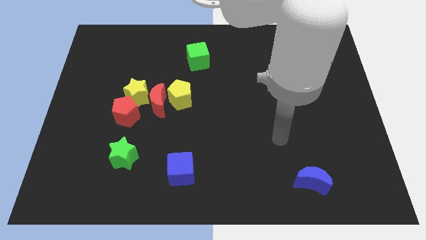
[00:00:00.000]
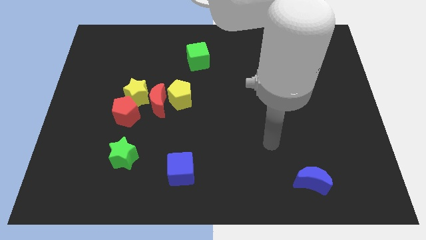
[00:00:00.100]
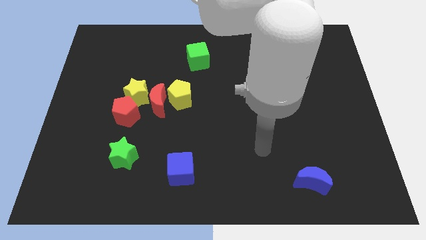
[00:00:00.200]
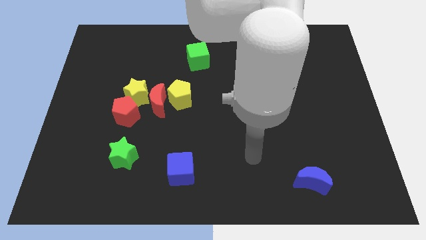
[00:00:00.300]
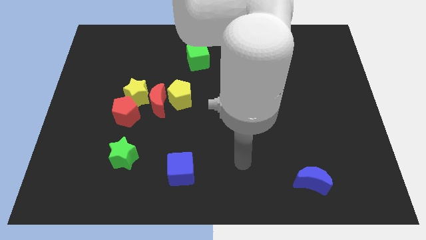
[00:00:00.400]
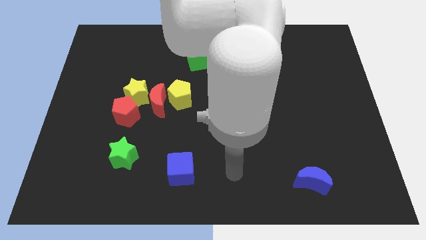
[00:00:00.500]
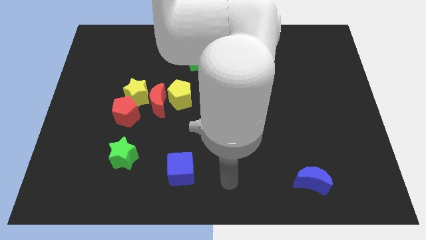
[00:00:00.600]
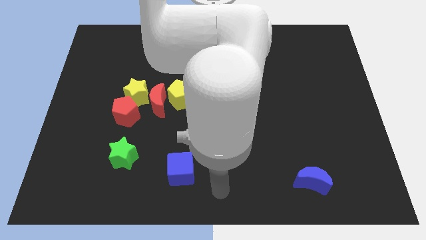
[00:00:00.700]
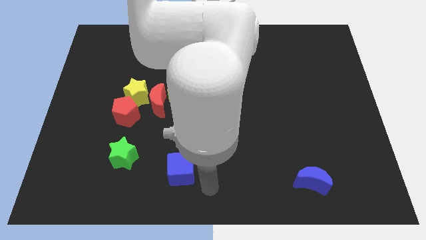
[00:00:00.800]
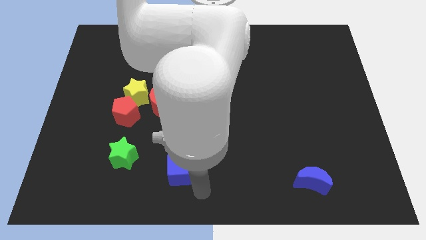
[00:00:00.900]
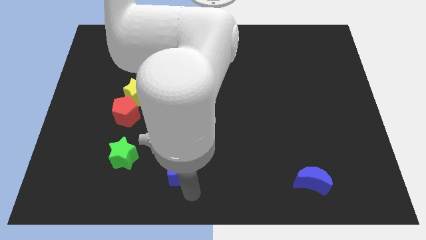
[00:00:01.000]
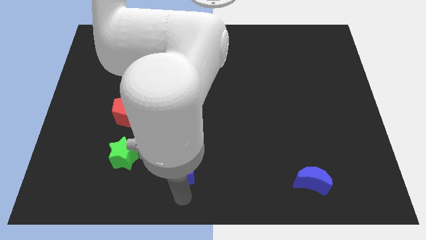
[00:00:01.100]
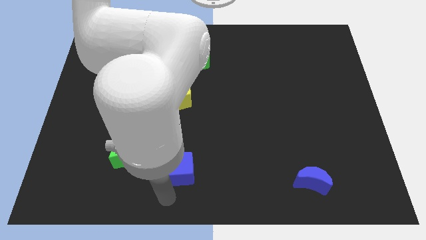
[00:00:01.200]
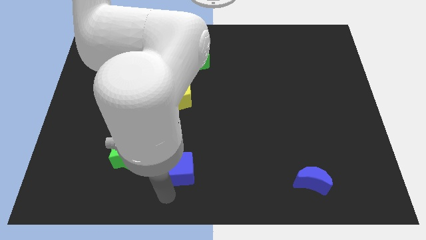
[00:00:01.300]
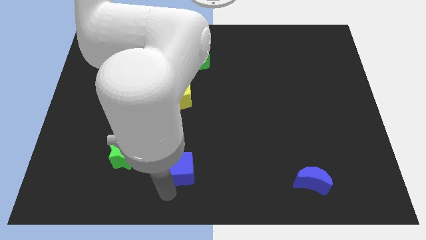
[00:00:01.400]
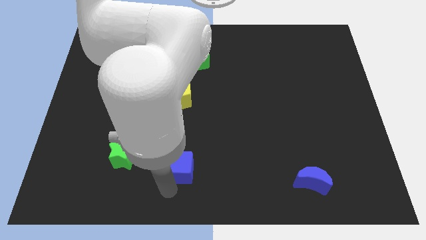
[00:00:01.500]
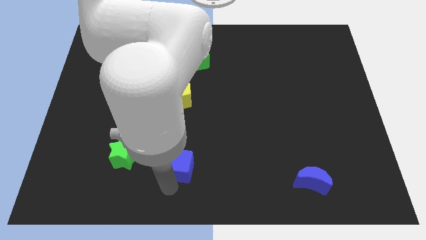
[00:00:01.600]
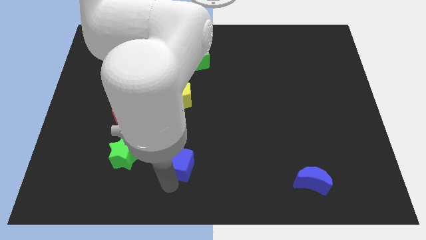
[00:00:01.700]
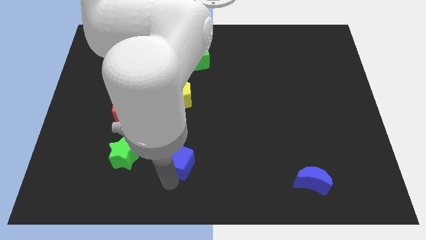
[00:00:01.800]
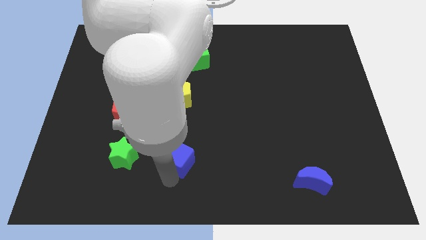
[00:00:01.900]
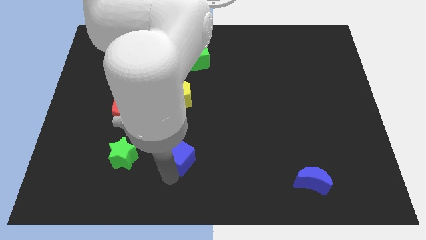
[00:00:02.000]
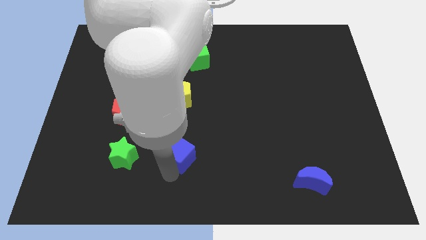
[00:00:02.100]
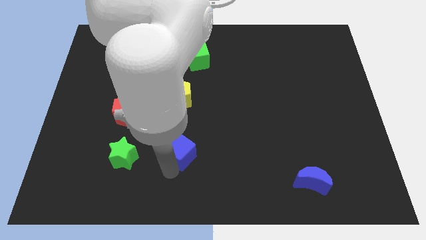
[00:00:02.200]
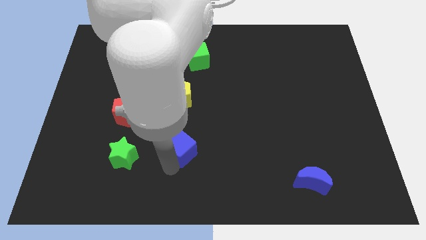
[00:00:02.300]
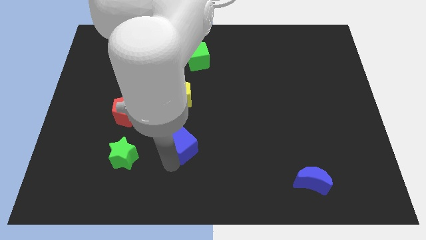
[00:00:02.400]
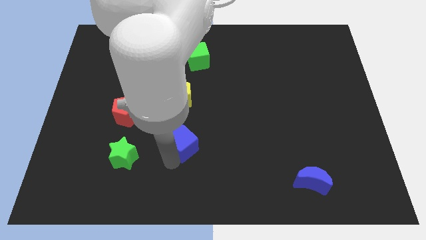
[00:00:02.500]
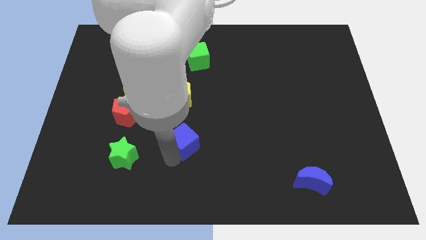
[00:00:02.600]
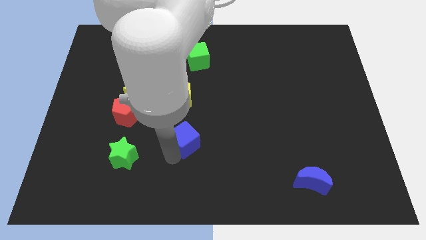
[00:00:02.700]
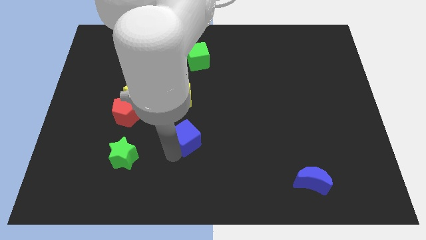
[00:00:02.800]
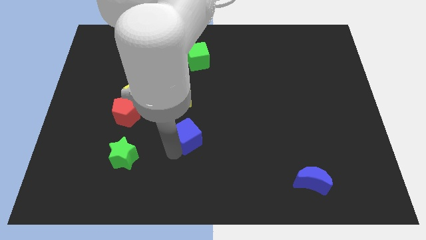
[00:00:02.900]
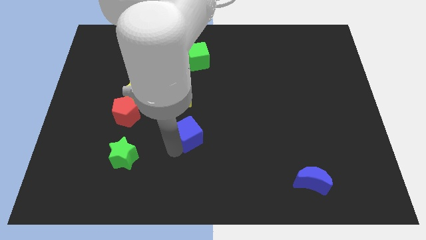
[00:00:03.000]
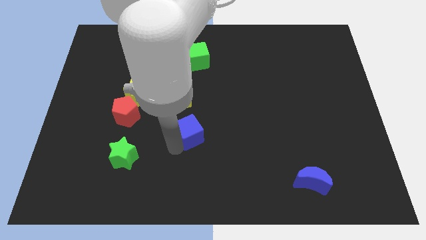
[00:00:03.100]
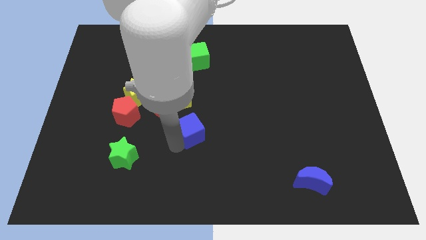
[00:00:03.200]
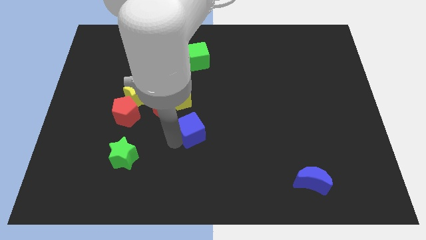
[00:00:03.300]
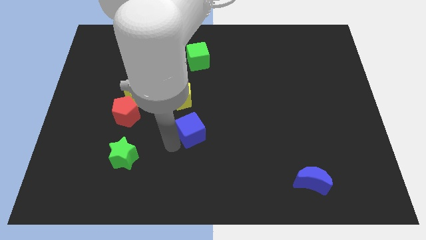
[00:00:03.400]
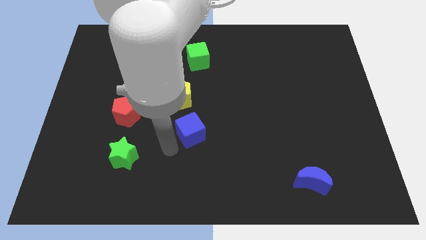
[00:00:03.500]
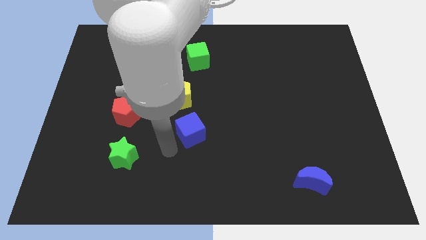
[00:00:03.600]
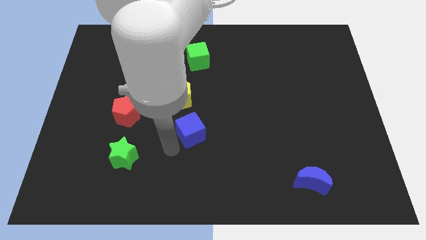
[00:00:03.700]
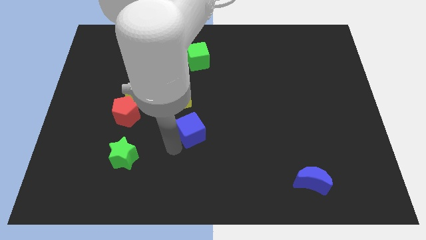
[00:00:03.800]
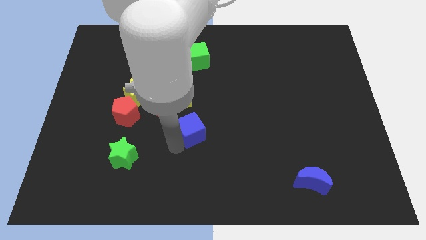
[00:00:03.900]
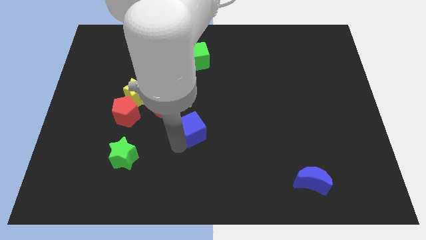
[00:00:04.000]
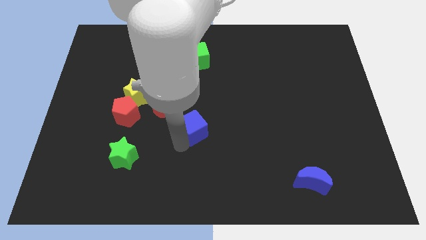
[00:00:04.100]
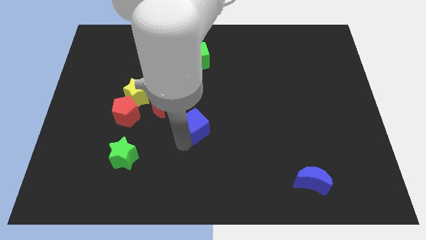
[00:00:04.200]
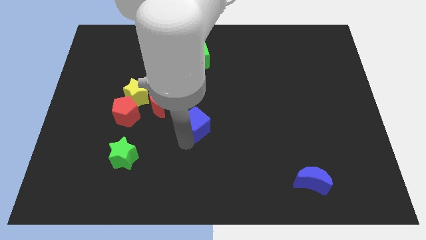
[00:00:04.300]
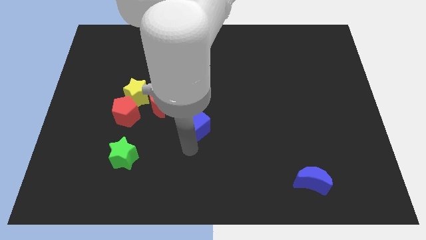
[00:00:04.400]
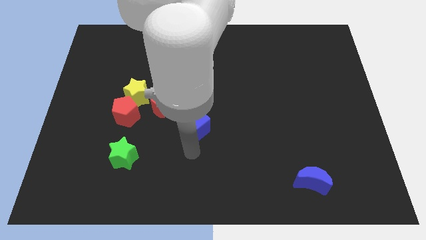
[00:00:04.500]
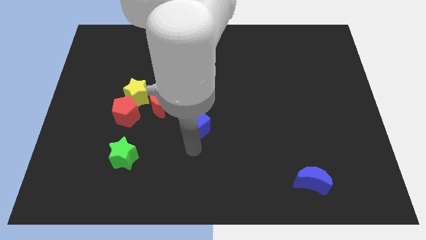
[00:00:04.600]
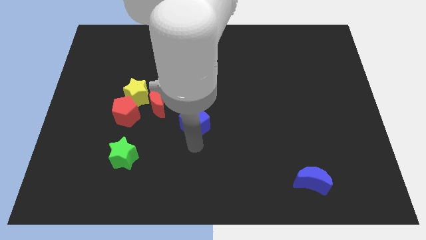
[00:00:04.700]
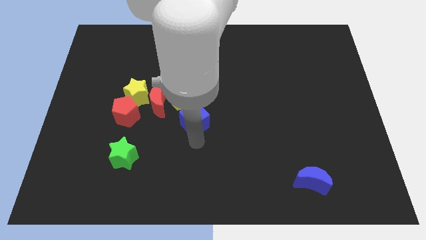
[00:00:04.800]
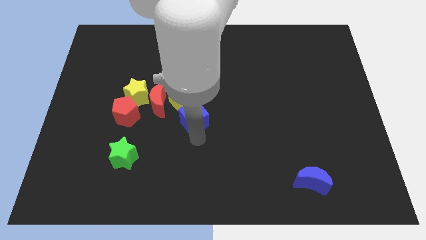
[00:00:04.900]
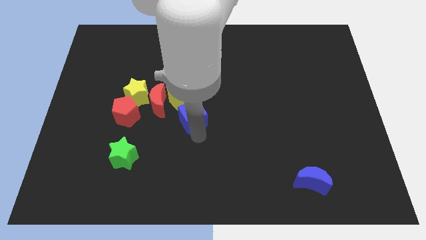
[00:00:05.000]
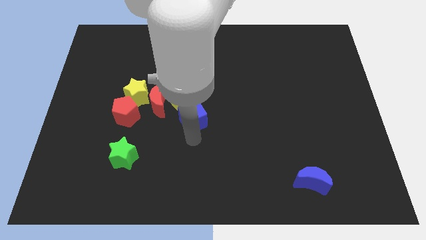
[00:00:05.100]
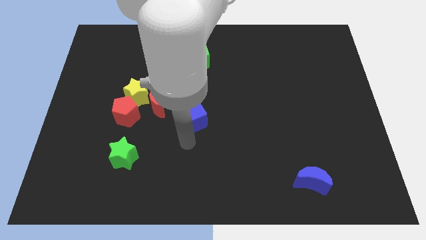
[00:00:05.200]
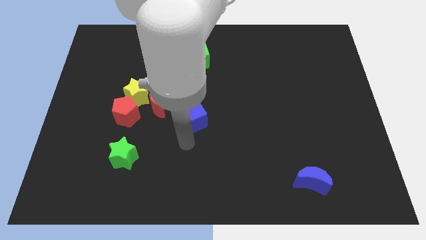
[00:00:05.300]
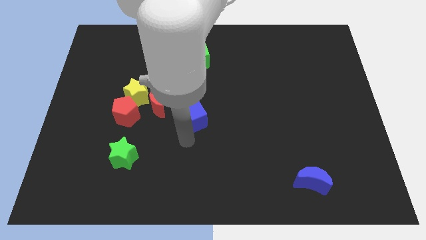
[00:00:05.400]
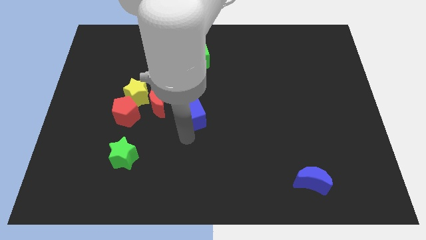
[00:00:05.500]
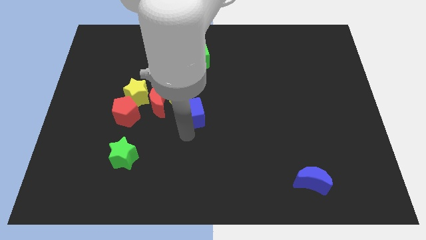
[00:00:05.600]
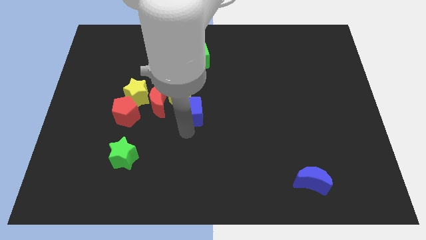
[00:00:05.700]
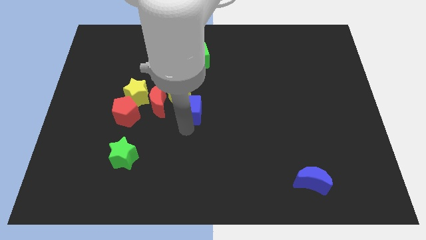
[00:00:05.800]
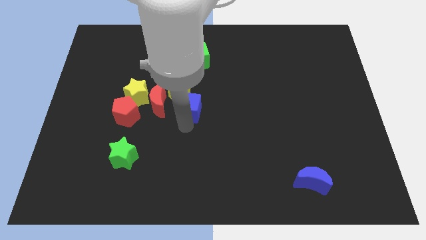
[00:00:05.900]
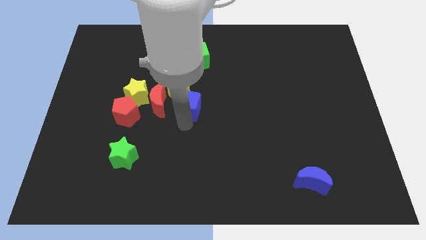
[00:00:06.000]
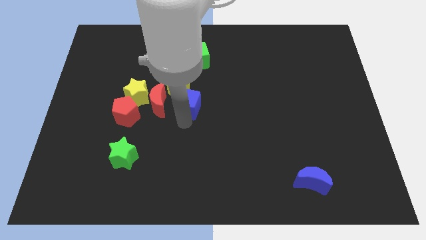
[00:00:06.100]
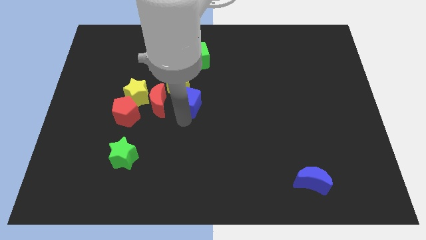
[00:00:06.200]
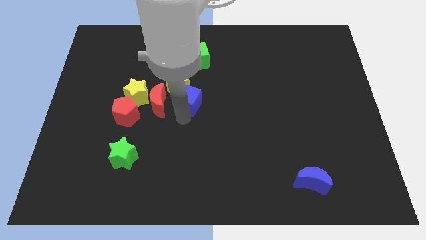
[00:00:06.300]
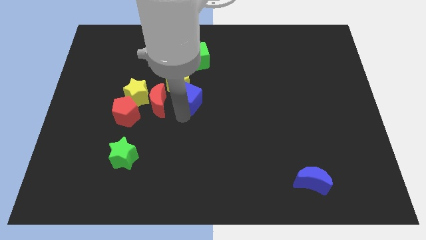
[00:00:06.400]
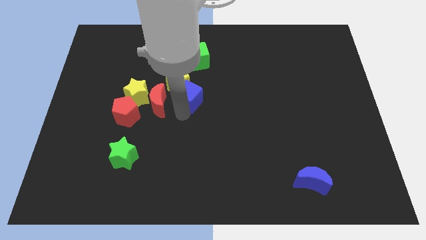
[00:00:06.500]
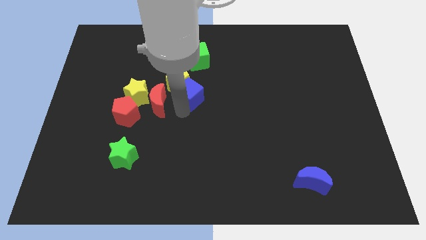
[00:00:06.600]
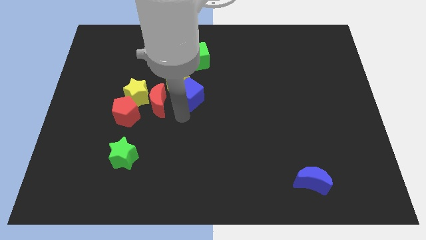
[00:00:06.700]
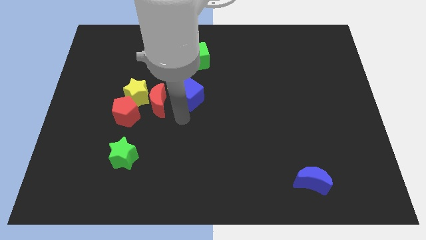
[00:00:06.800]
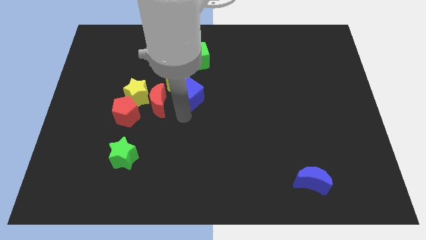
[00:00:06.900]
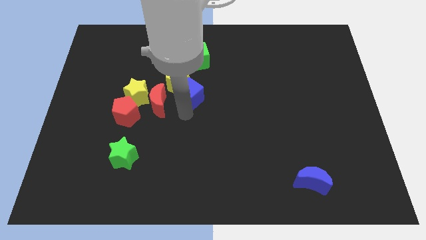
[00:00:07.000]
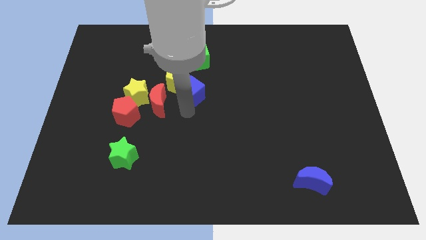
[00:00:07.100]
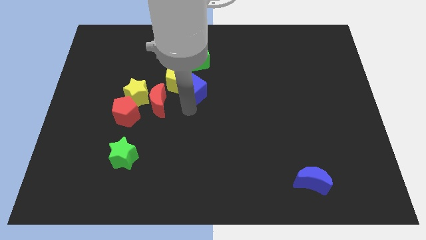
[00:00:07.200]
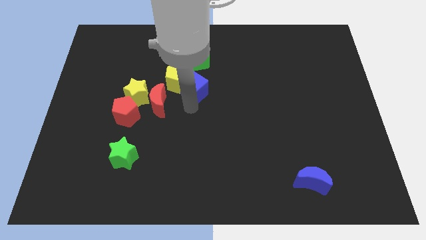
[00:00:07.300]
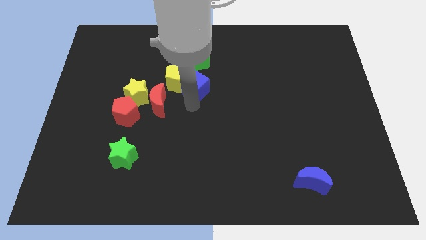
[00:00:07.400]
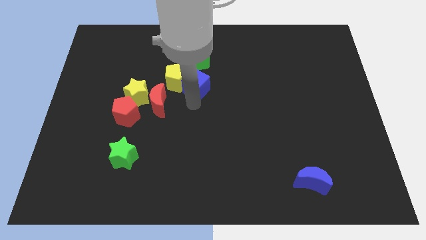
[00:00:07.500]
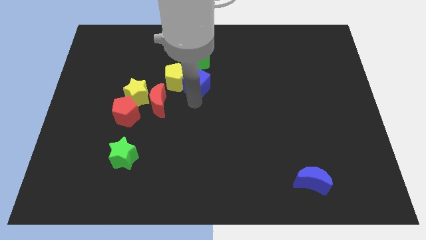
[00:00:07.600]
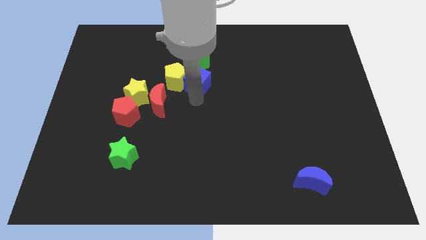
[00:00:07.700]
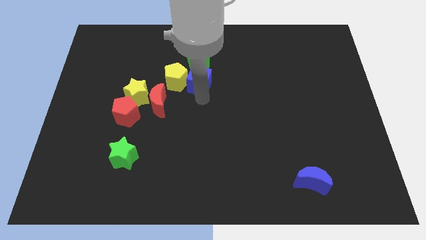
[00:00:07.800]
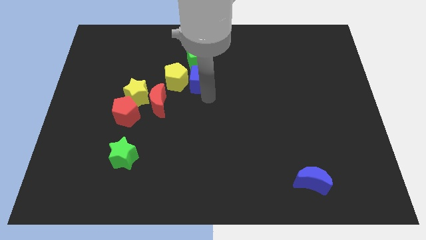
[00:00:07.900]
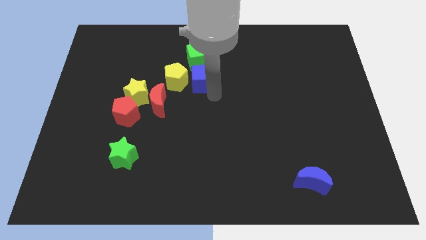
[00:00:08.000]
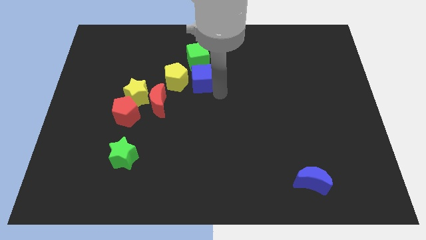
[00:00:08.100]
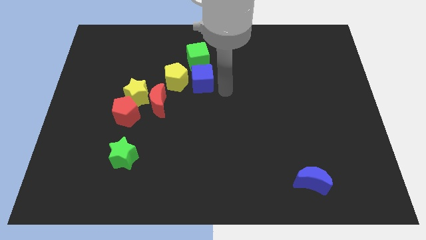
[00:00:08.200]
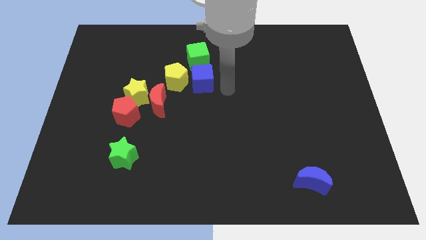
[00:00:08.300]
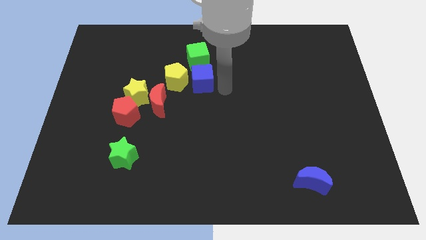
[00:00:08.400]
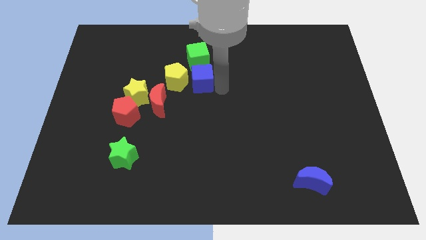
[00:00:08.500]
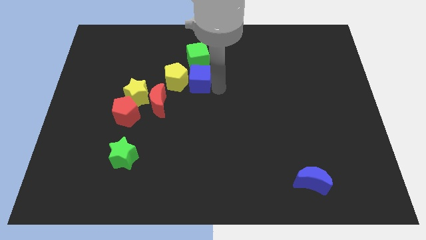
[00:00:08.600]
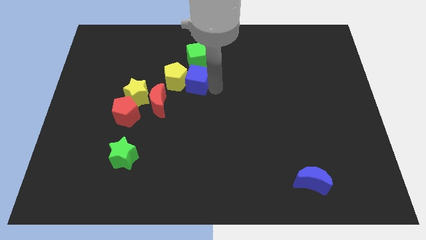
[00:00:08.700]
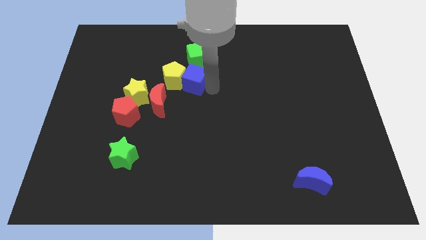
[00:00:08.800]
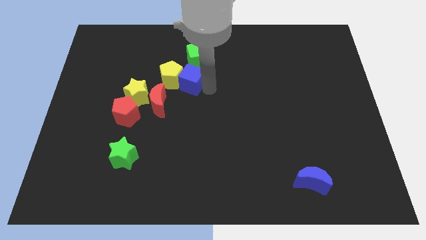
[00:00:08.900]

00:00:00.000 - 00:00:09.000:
move the blue cube to the bottom left side of the green cube
